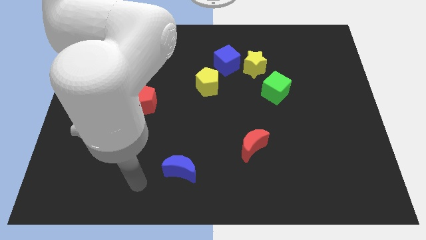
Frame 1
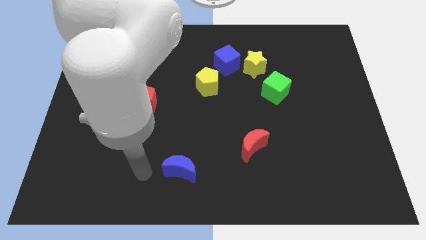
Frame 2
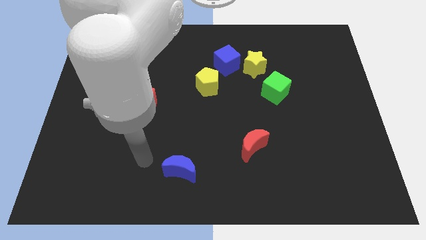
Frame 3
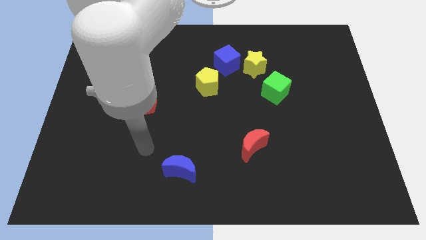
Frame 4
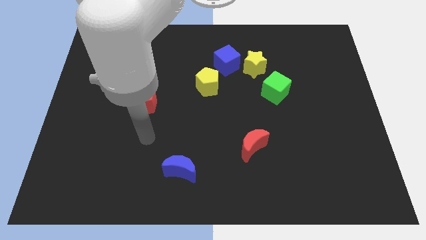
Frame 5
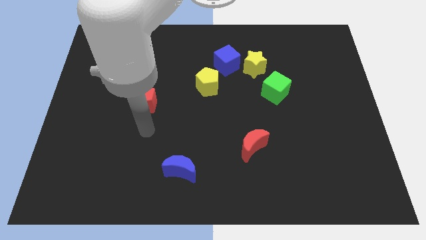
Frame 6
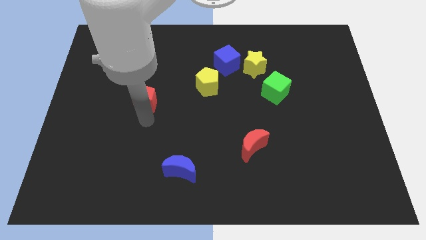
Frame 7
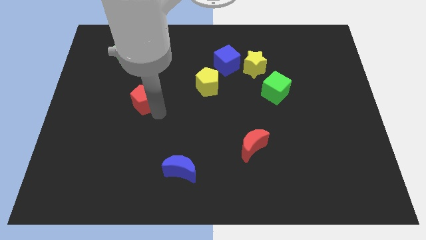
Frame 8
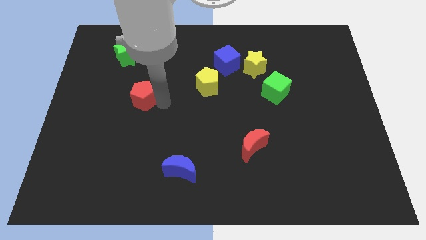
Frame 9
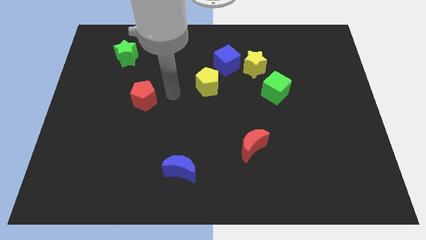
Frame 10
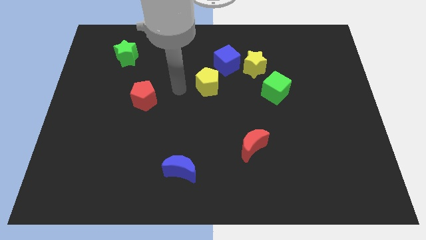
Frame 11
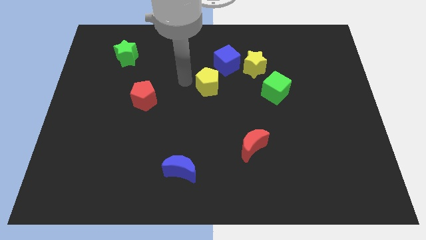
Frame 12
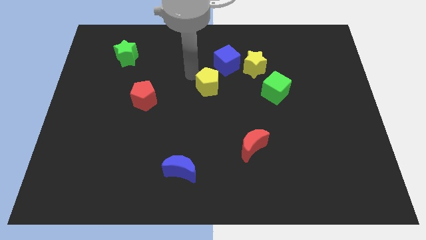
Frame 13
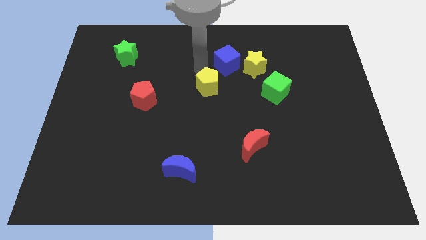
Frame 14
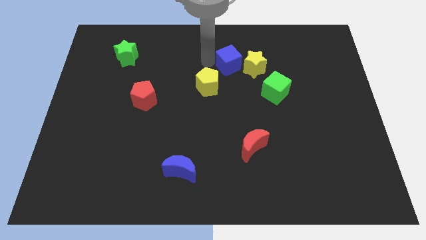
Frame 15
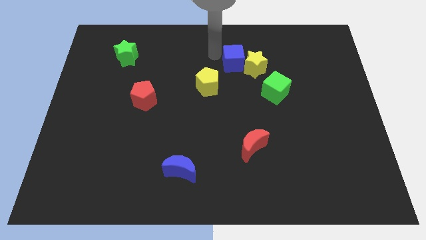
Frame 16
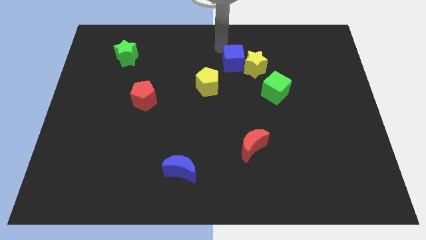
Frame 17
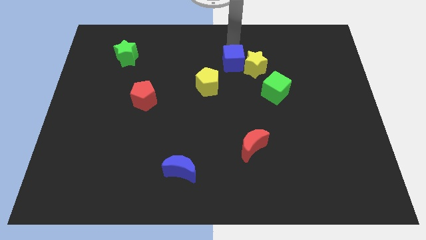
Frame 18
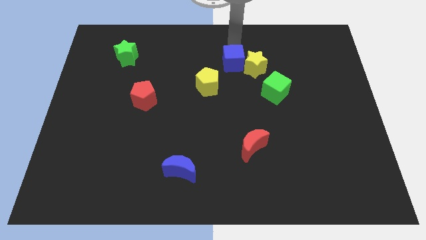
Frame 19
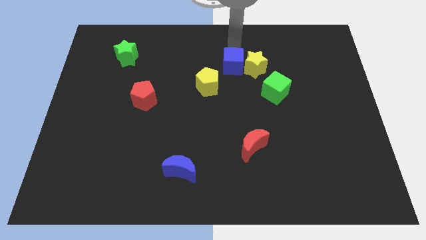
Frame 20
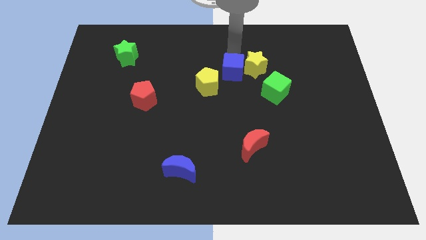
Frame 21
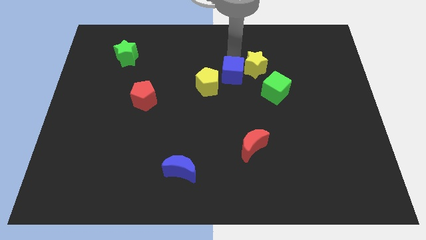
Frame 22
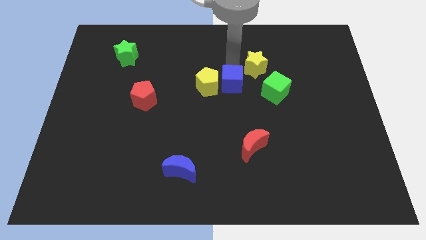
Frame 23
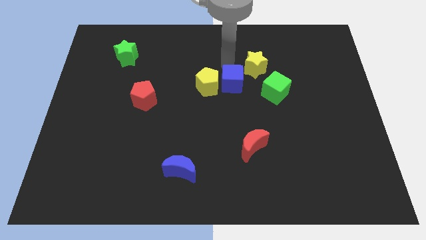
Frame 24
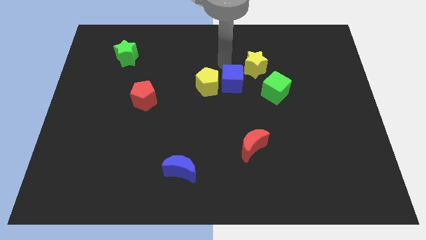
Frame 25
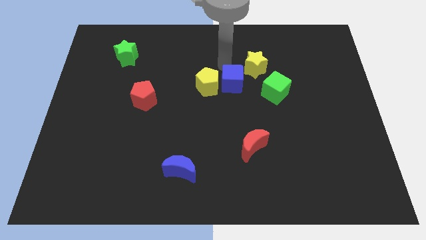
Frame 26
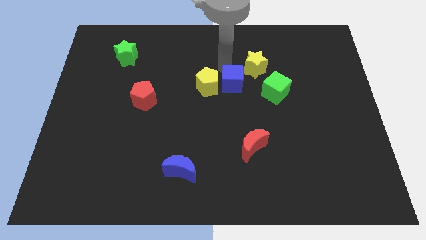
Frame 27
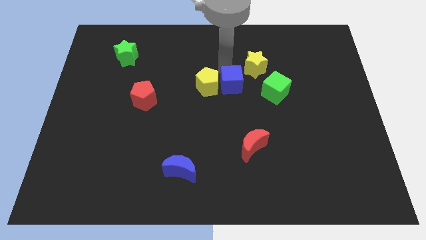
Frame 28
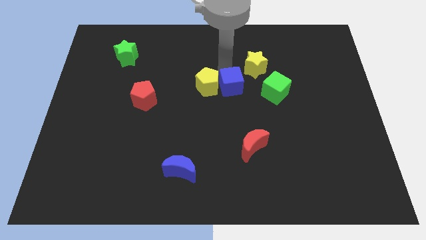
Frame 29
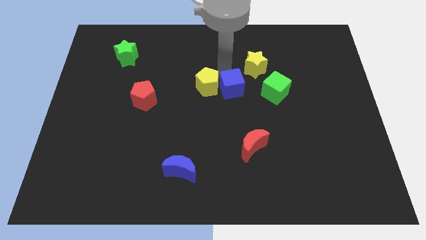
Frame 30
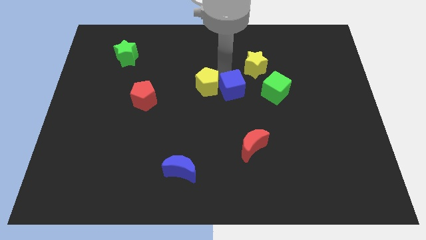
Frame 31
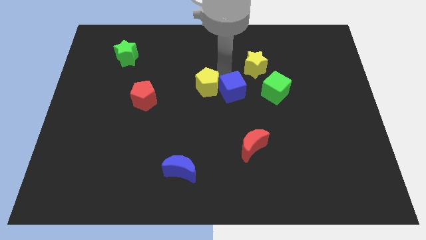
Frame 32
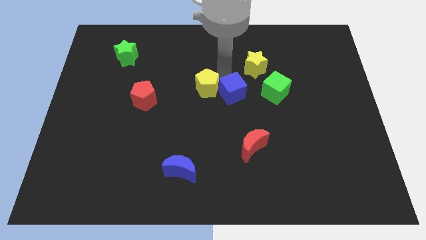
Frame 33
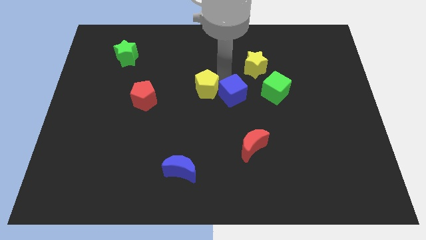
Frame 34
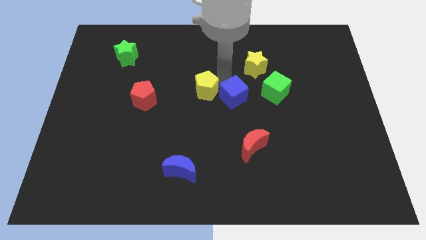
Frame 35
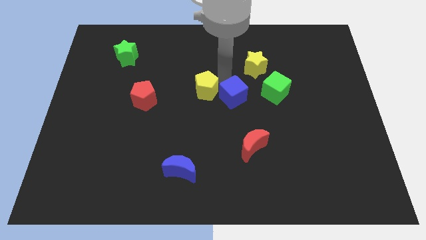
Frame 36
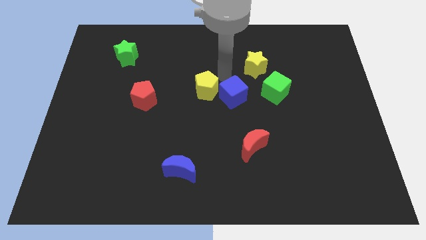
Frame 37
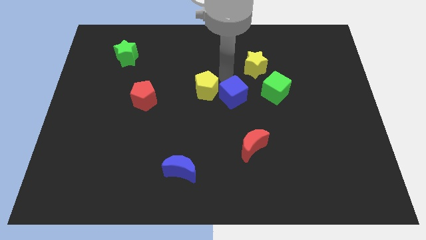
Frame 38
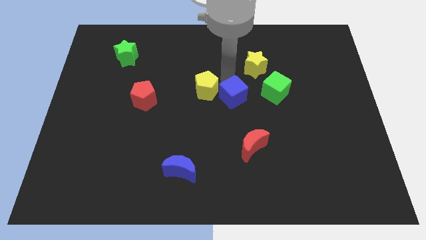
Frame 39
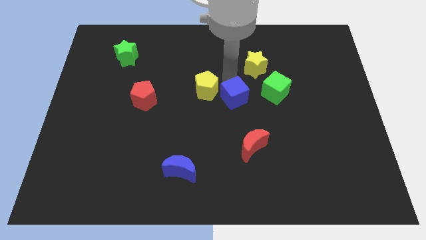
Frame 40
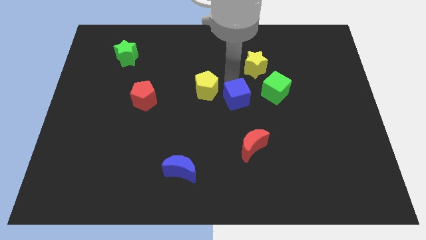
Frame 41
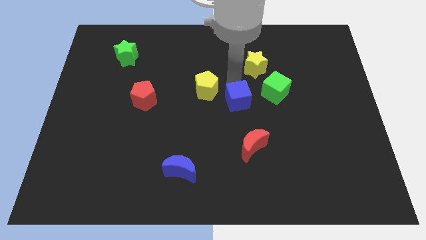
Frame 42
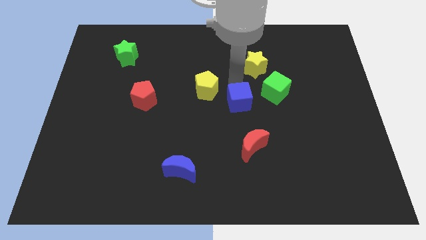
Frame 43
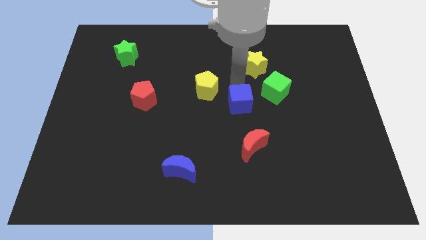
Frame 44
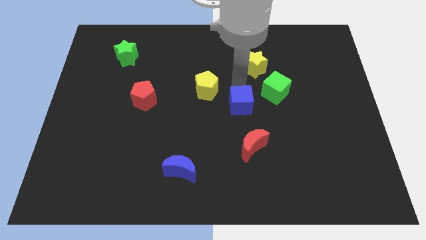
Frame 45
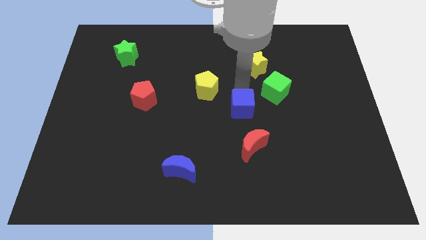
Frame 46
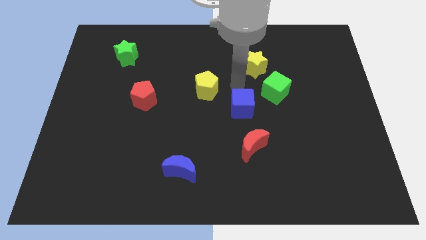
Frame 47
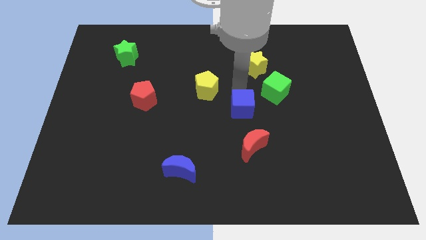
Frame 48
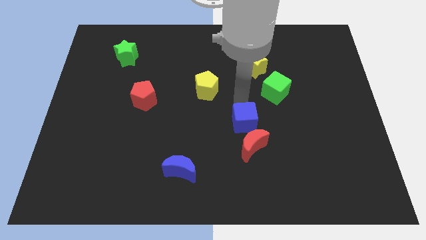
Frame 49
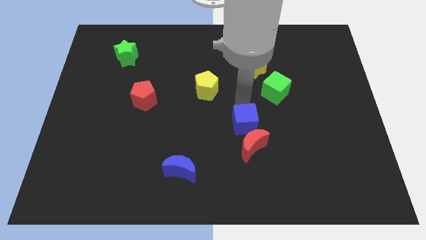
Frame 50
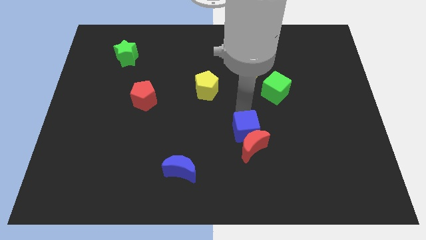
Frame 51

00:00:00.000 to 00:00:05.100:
put the blue cube to the red moon

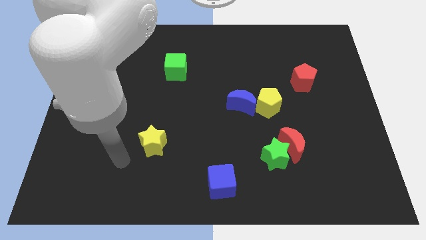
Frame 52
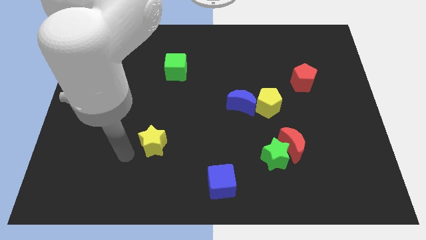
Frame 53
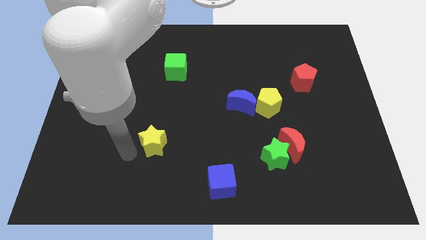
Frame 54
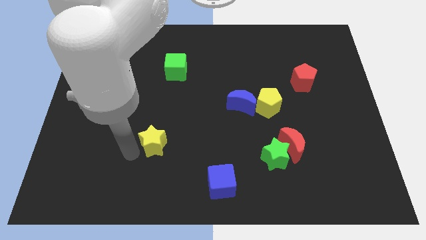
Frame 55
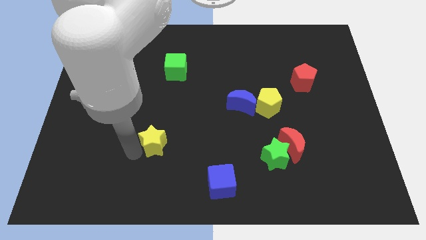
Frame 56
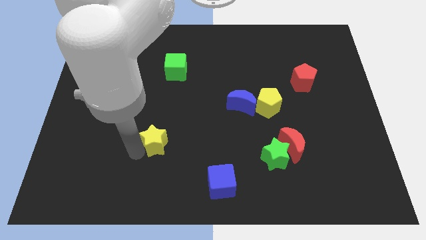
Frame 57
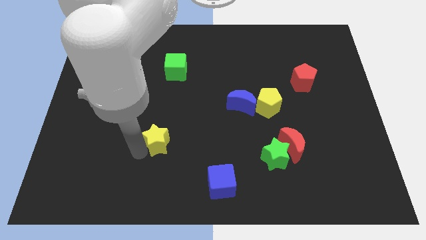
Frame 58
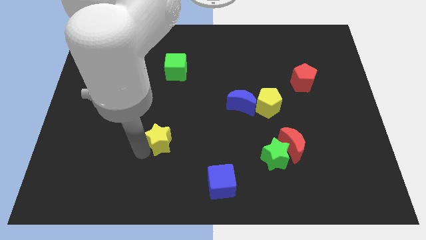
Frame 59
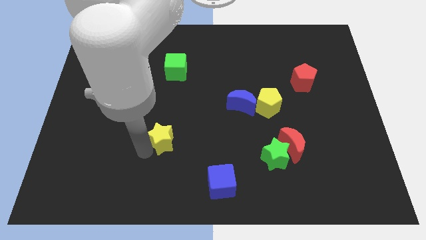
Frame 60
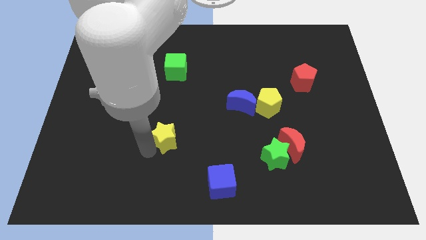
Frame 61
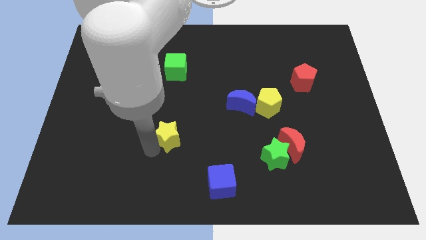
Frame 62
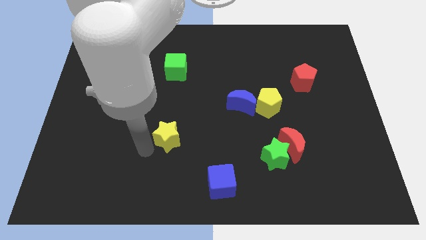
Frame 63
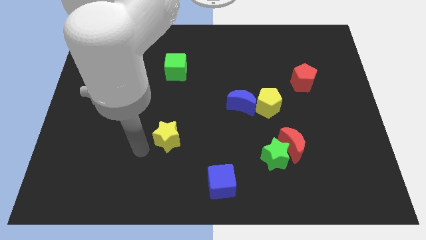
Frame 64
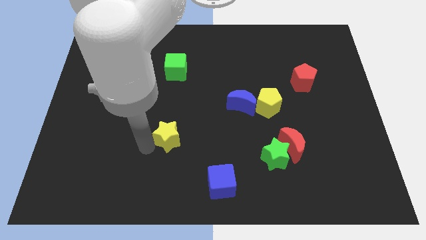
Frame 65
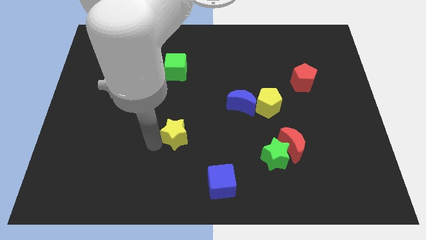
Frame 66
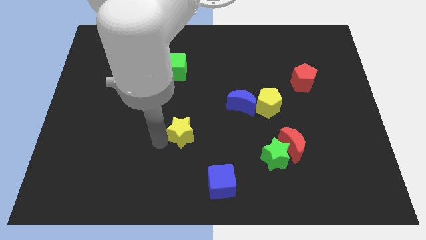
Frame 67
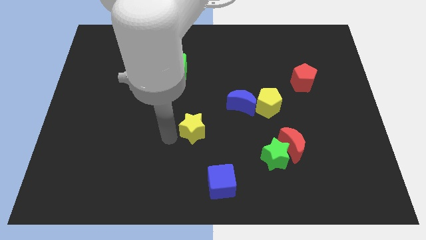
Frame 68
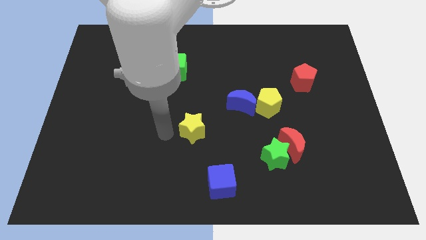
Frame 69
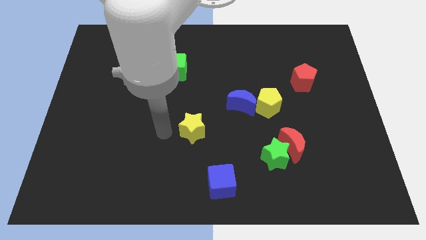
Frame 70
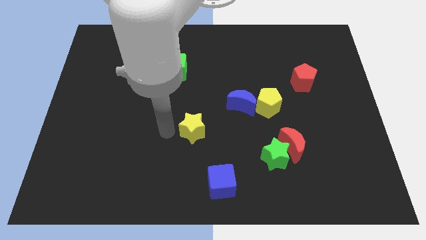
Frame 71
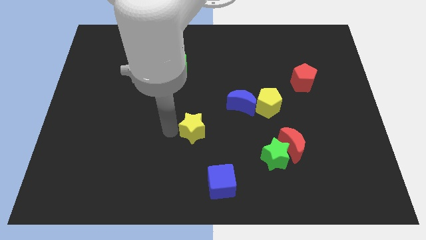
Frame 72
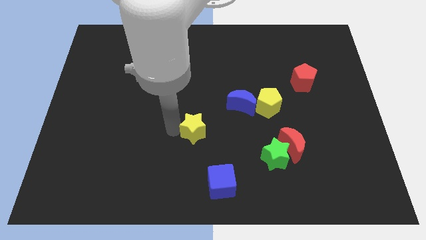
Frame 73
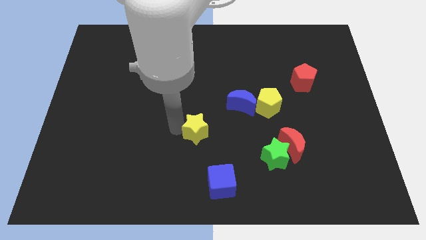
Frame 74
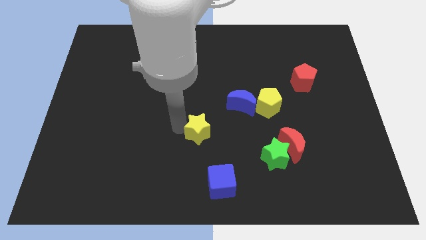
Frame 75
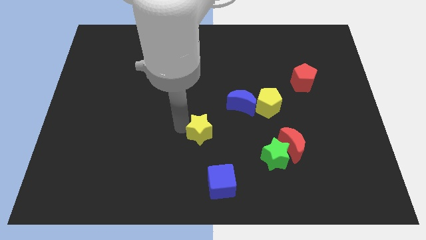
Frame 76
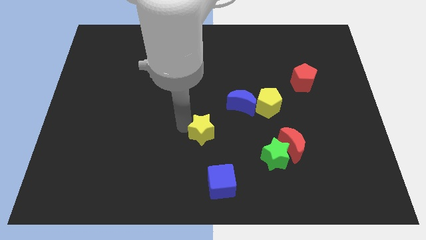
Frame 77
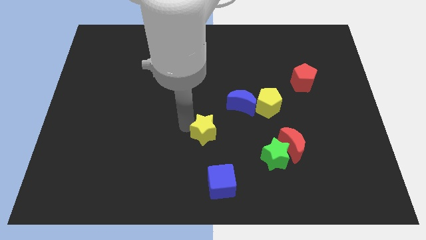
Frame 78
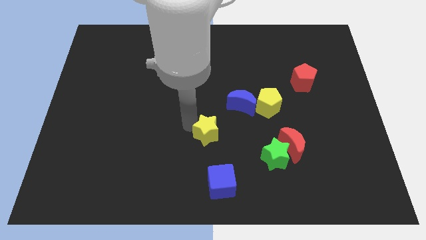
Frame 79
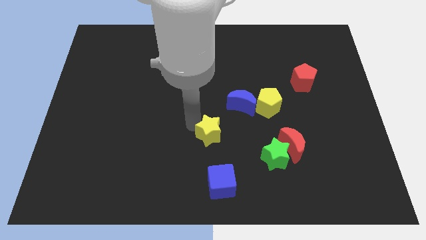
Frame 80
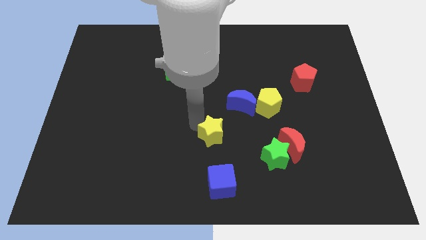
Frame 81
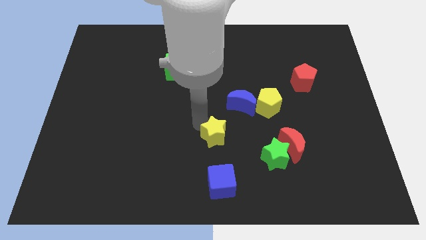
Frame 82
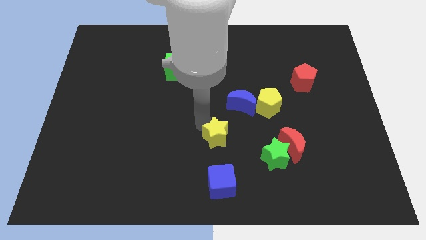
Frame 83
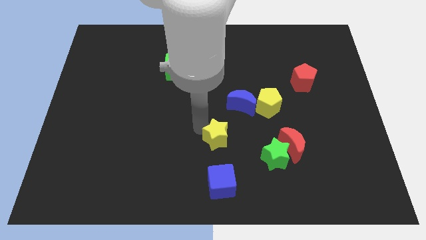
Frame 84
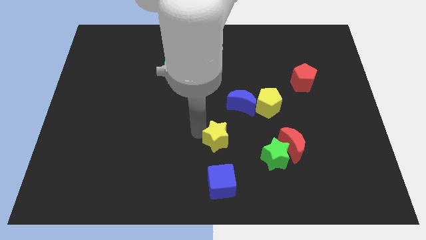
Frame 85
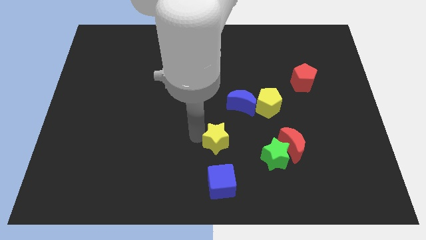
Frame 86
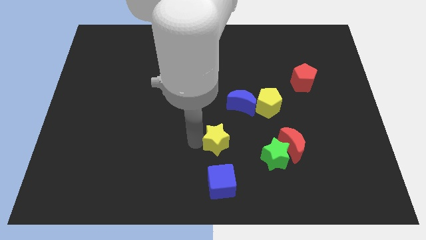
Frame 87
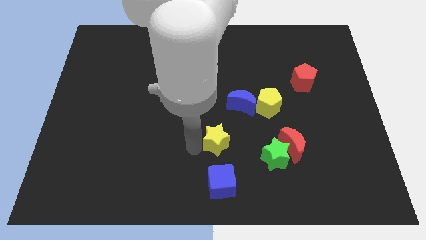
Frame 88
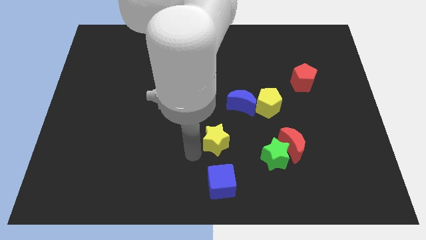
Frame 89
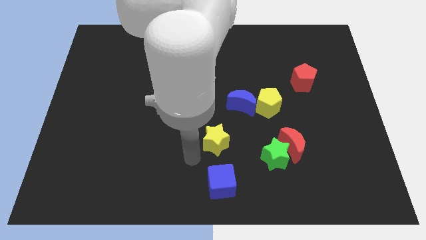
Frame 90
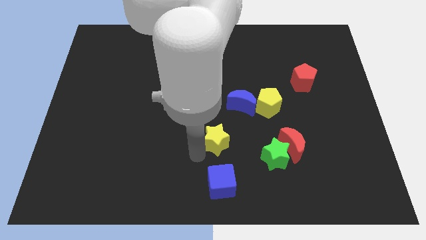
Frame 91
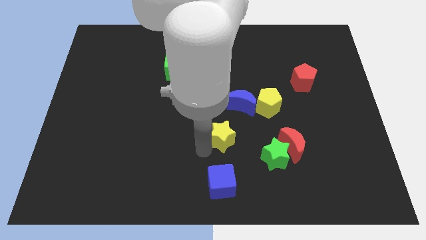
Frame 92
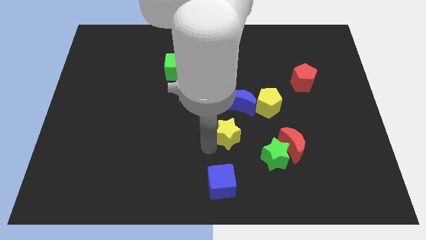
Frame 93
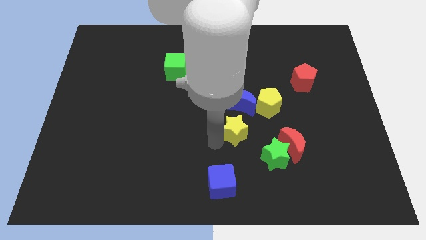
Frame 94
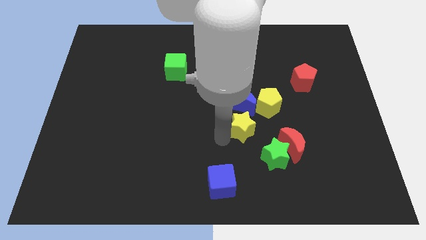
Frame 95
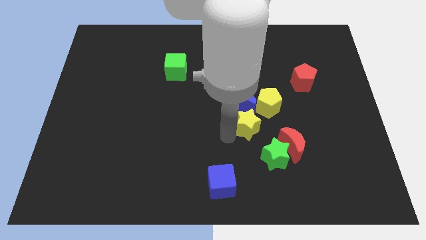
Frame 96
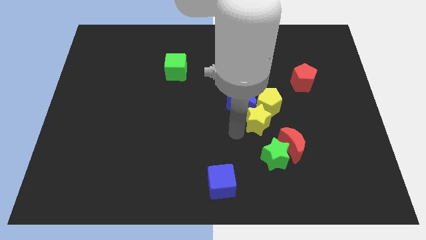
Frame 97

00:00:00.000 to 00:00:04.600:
put the yellow star towards the yellow pentagon
